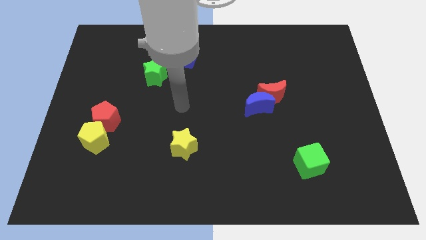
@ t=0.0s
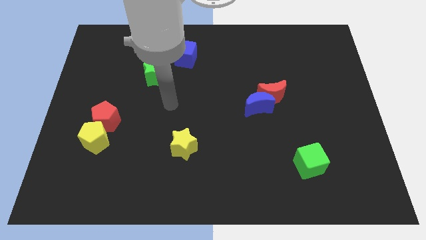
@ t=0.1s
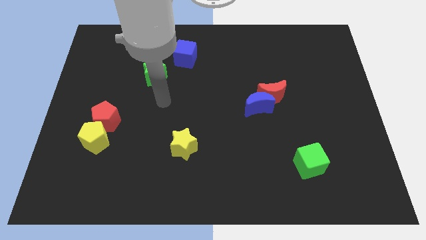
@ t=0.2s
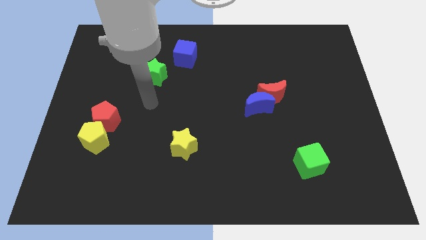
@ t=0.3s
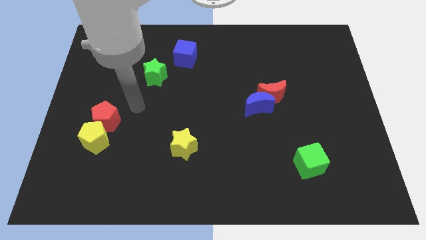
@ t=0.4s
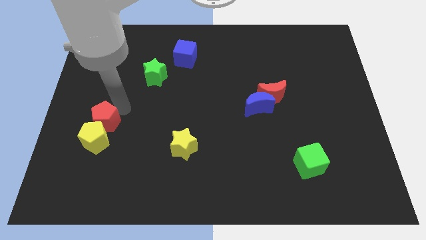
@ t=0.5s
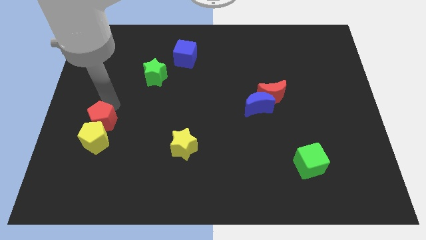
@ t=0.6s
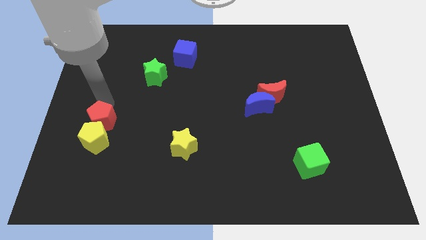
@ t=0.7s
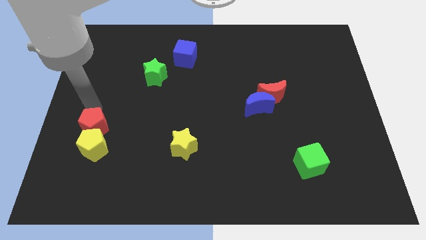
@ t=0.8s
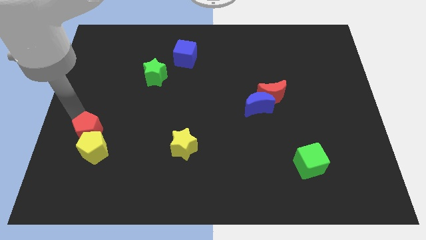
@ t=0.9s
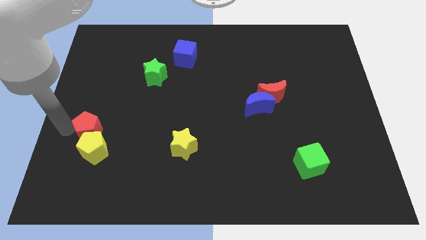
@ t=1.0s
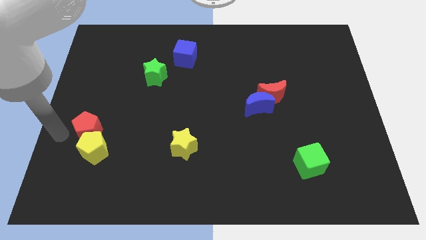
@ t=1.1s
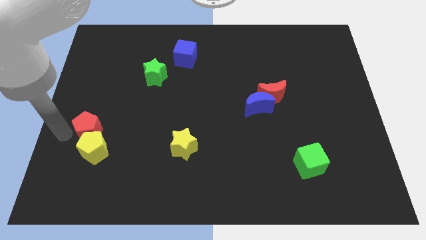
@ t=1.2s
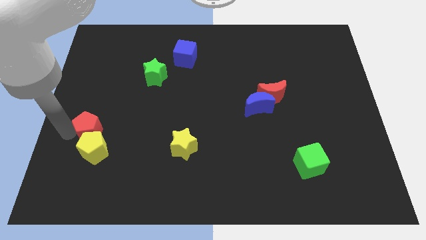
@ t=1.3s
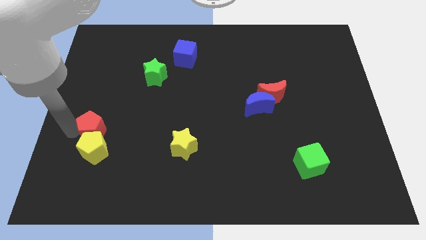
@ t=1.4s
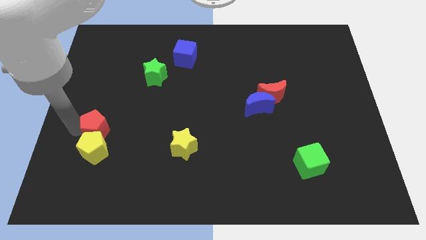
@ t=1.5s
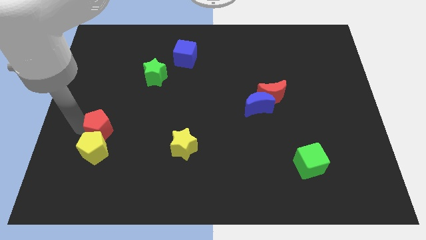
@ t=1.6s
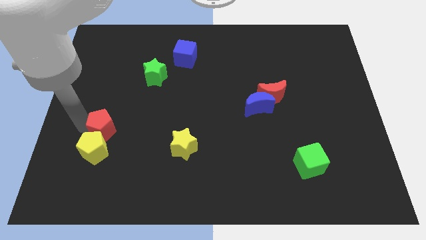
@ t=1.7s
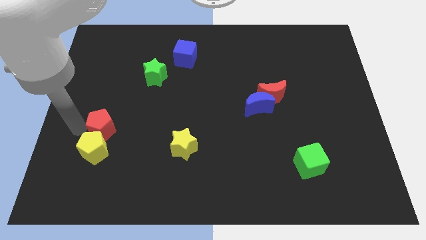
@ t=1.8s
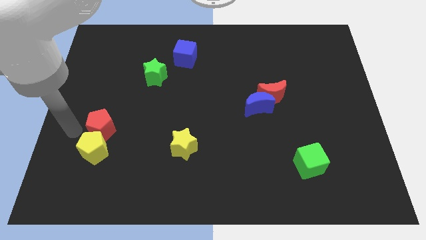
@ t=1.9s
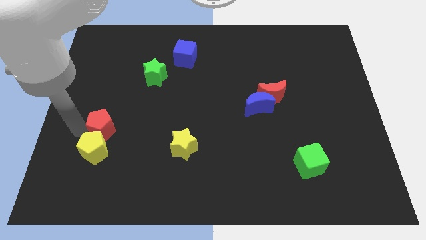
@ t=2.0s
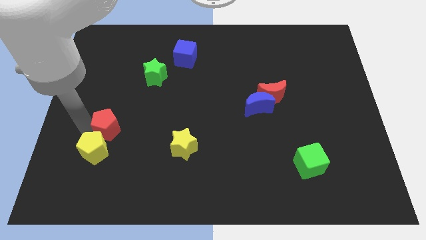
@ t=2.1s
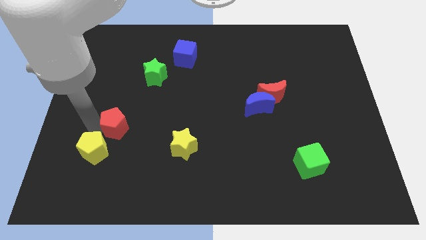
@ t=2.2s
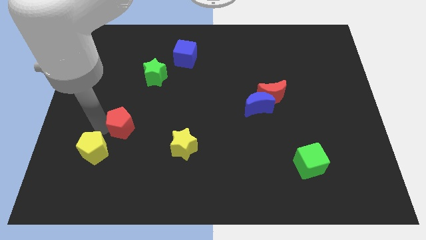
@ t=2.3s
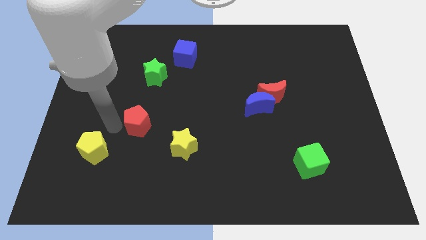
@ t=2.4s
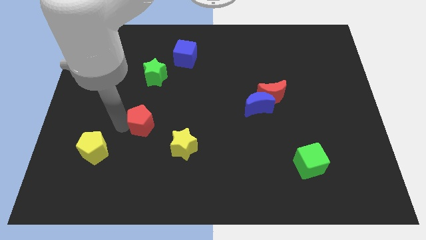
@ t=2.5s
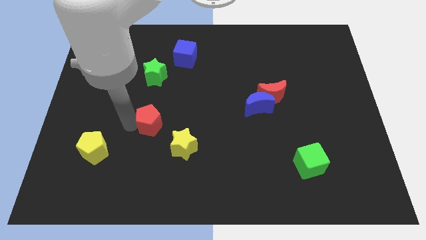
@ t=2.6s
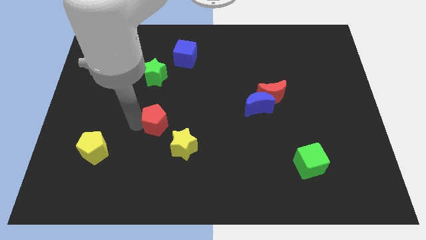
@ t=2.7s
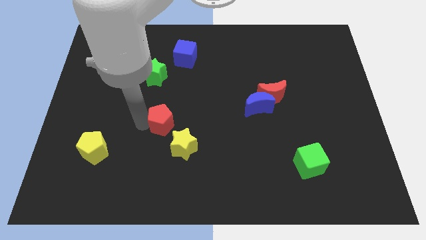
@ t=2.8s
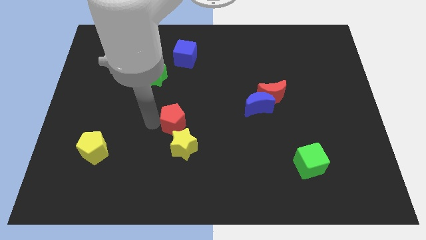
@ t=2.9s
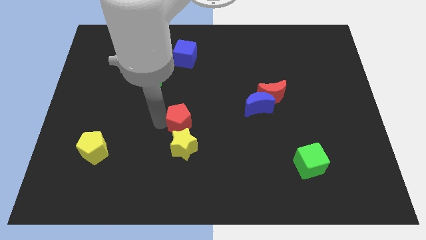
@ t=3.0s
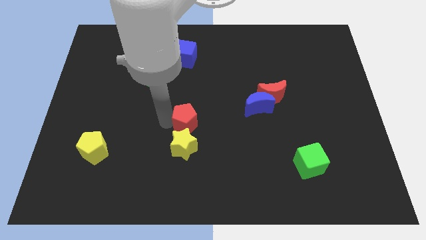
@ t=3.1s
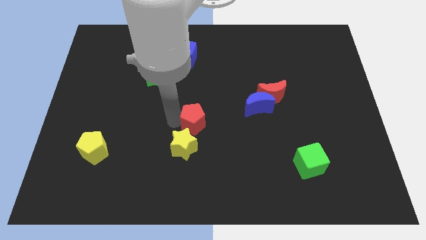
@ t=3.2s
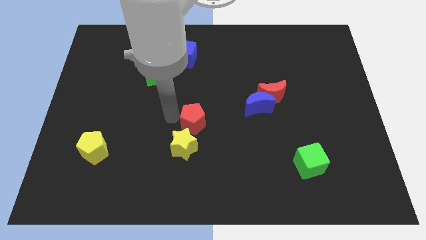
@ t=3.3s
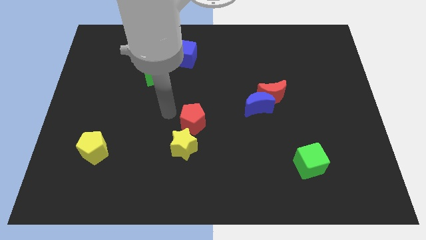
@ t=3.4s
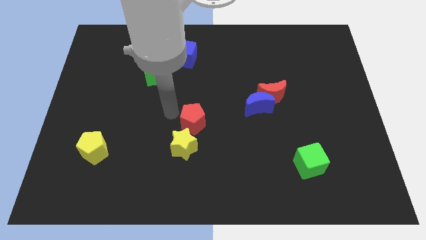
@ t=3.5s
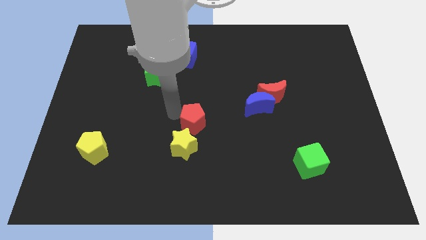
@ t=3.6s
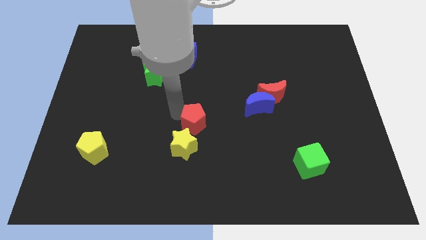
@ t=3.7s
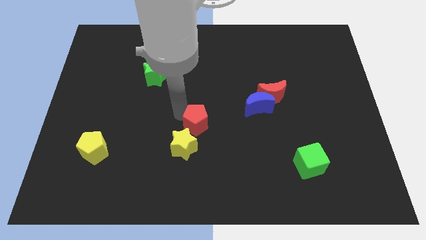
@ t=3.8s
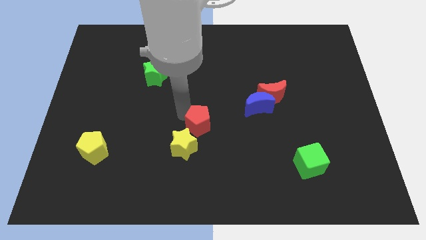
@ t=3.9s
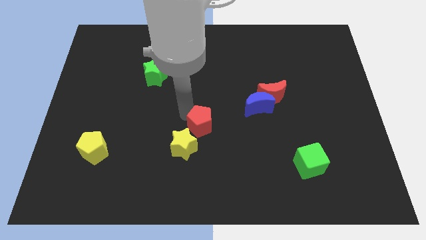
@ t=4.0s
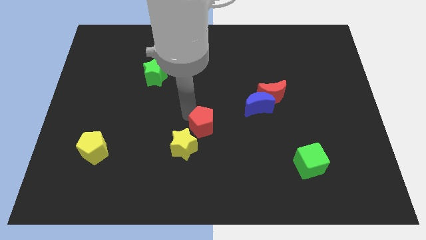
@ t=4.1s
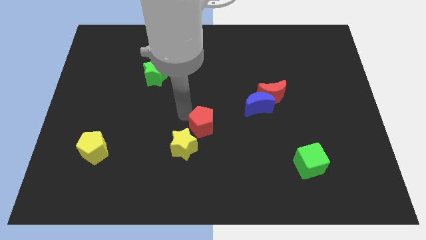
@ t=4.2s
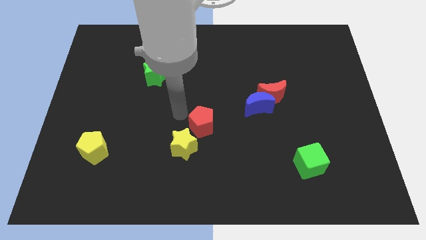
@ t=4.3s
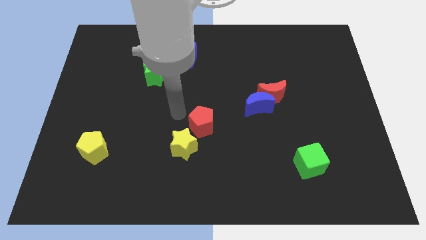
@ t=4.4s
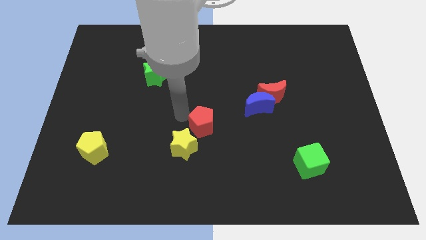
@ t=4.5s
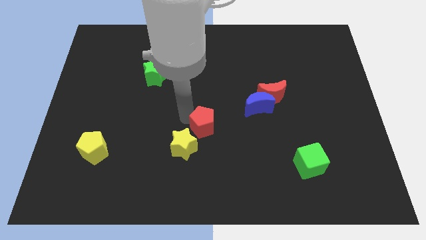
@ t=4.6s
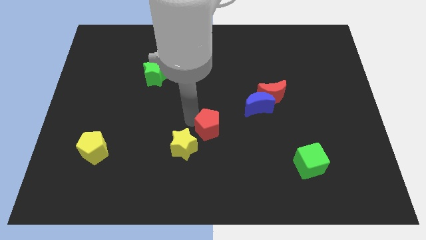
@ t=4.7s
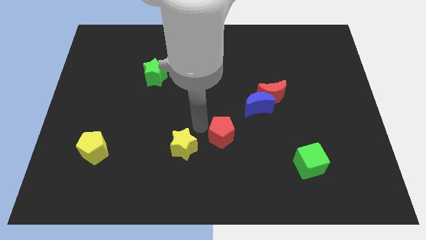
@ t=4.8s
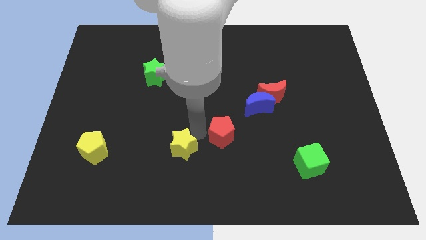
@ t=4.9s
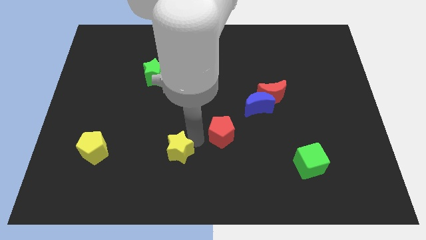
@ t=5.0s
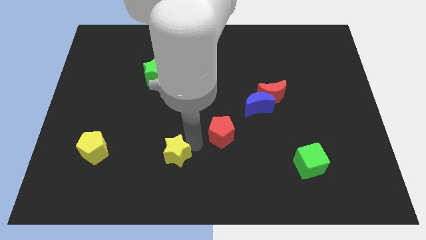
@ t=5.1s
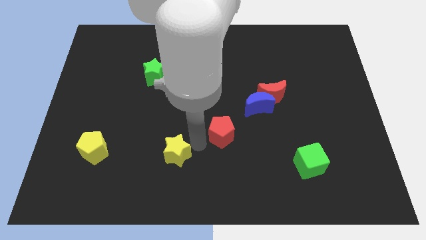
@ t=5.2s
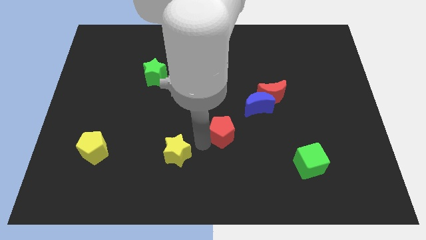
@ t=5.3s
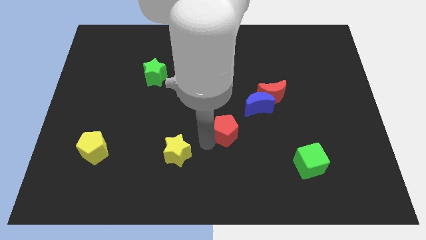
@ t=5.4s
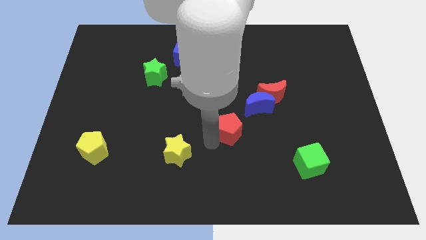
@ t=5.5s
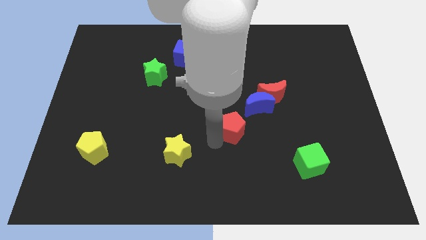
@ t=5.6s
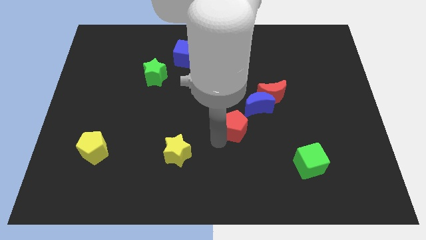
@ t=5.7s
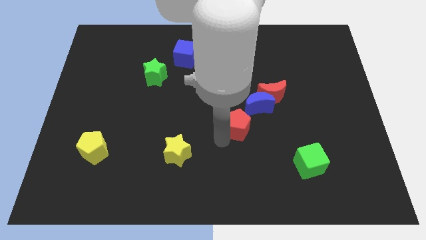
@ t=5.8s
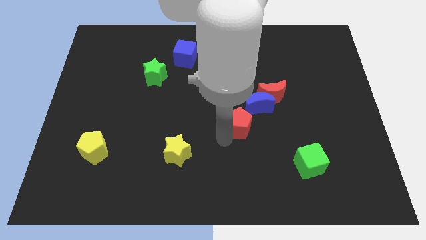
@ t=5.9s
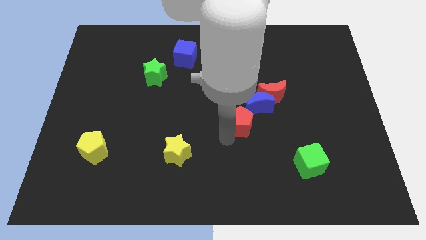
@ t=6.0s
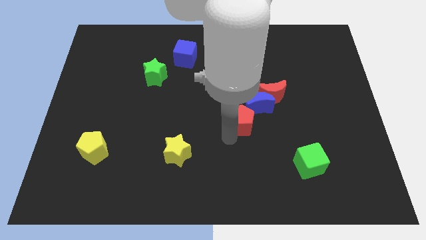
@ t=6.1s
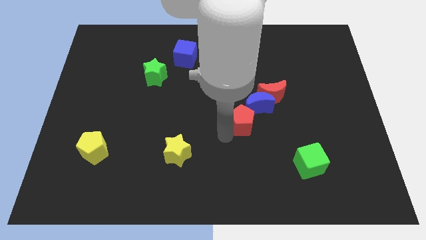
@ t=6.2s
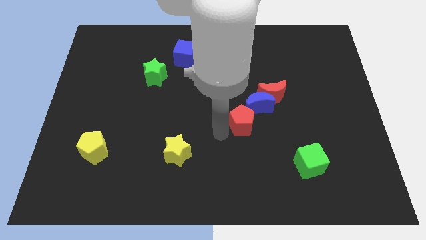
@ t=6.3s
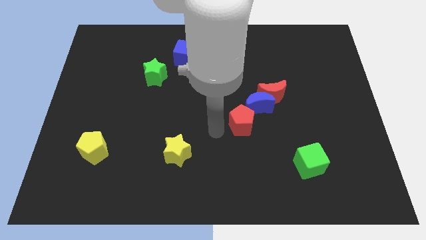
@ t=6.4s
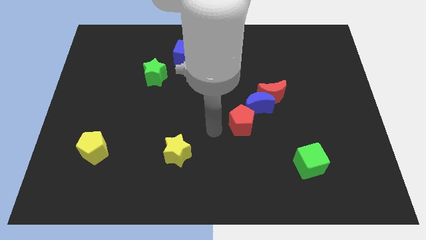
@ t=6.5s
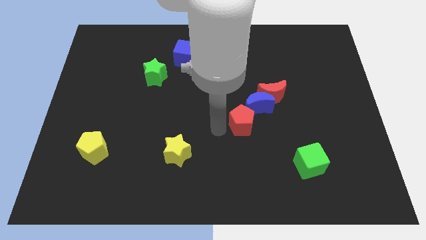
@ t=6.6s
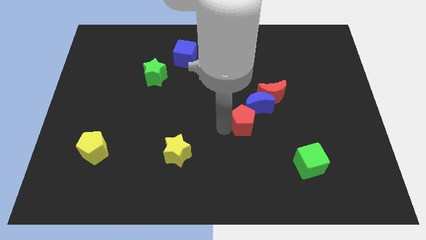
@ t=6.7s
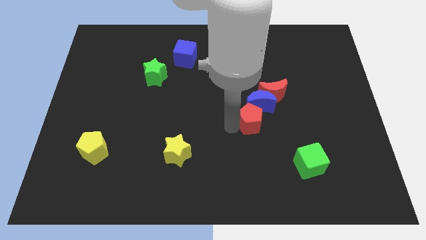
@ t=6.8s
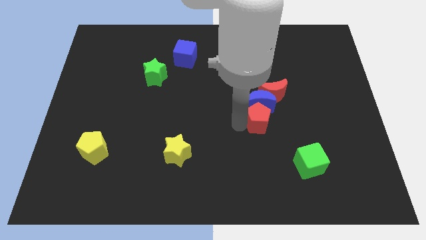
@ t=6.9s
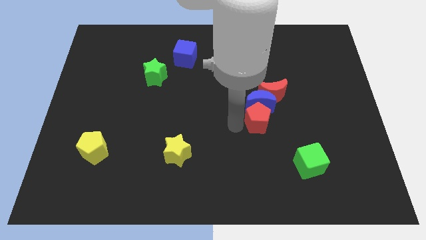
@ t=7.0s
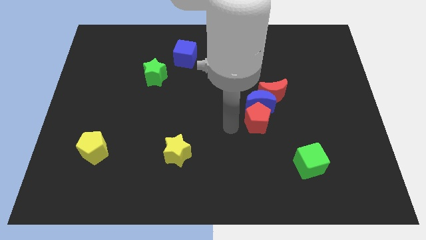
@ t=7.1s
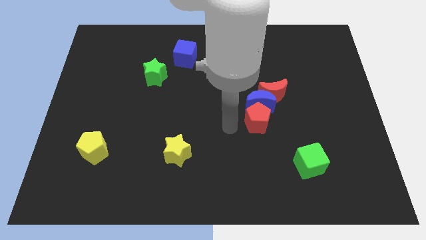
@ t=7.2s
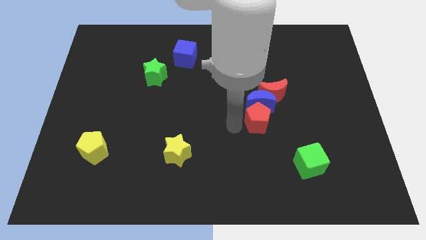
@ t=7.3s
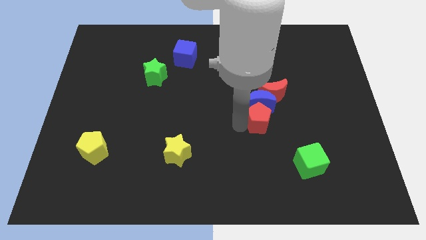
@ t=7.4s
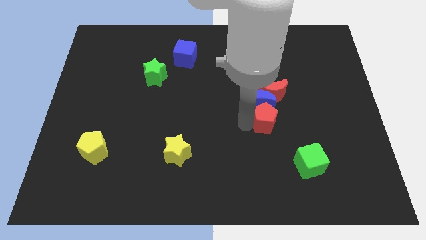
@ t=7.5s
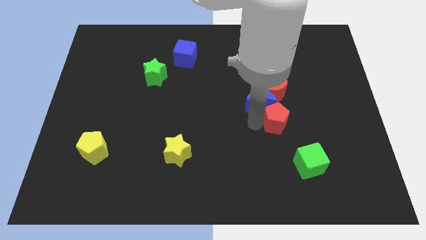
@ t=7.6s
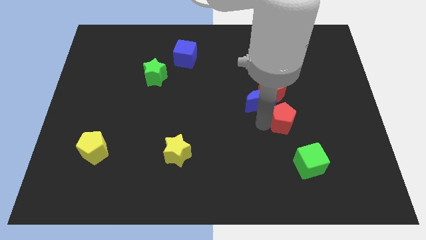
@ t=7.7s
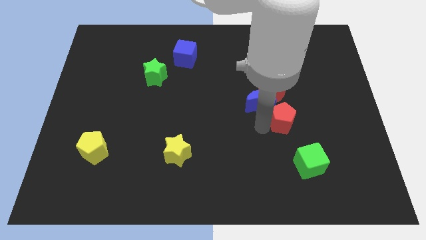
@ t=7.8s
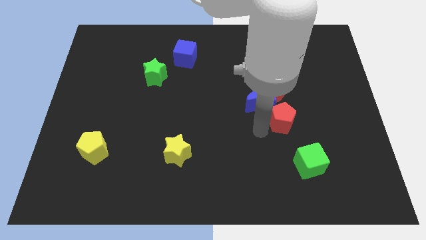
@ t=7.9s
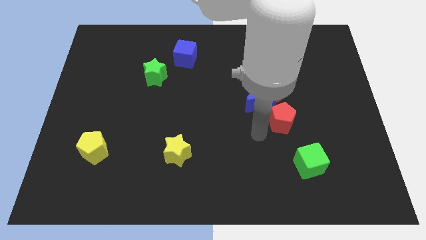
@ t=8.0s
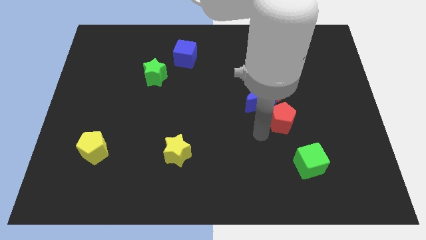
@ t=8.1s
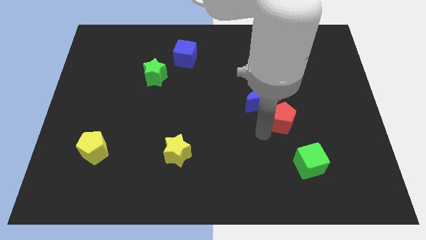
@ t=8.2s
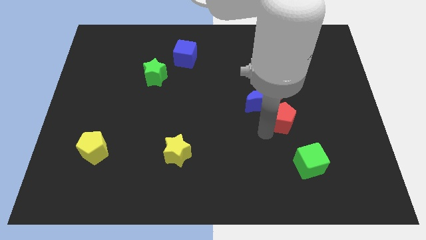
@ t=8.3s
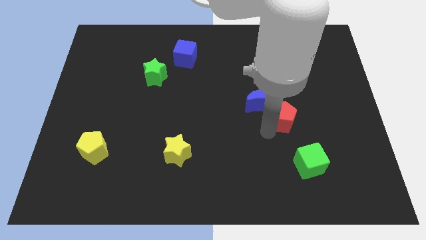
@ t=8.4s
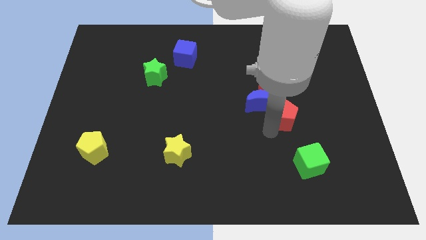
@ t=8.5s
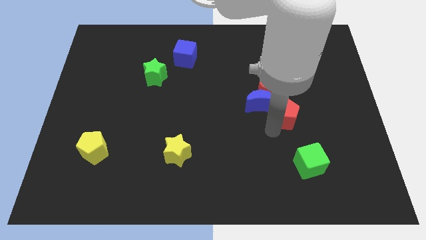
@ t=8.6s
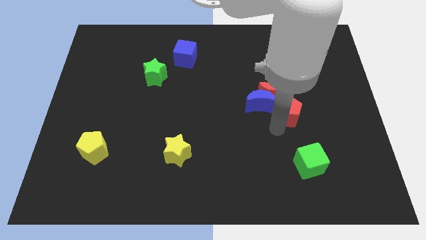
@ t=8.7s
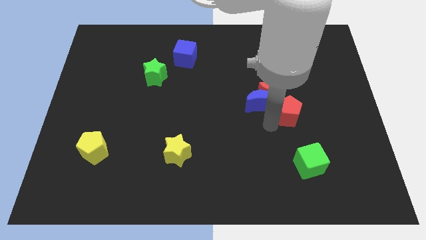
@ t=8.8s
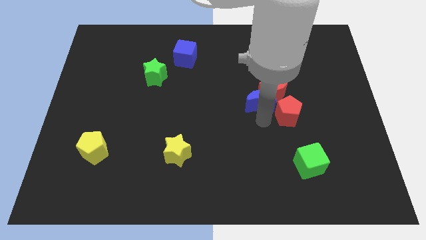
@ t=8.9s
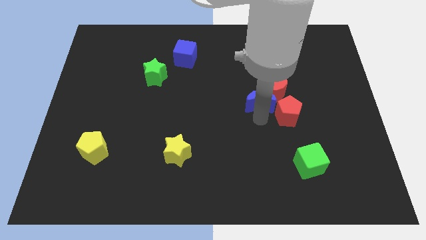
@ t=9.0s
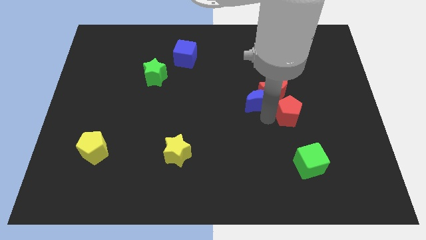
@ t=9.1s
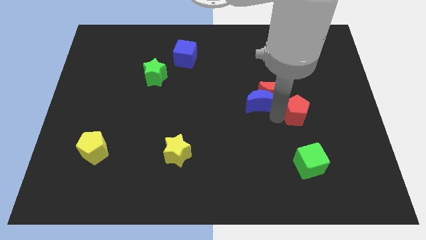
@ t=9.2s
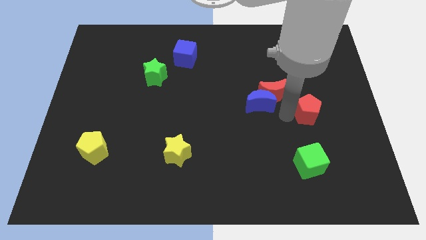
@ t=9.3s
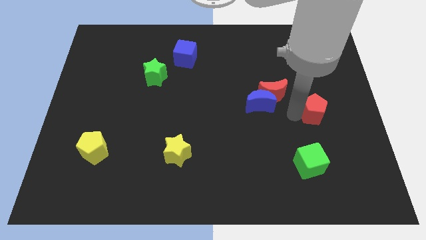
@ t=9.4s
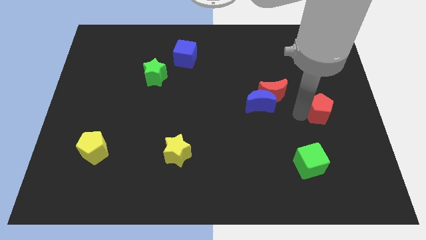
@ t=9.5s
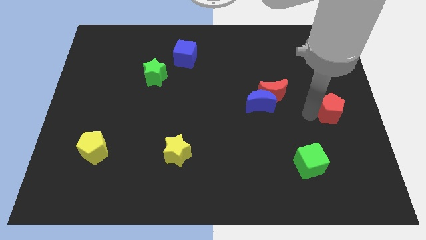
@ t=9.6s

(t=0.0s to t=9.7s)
move the red pentagon to the center right
